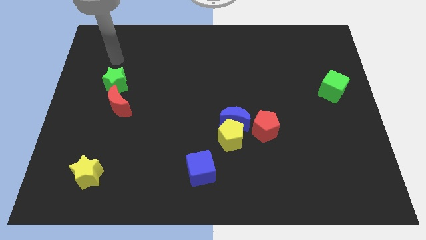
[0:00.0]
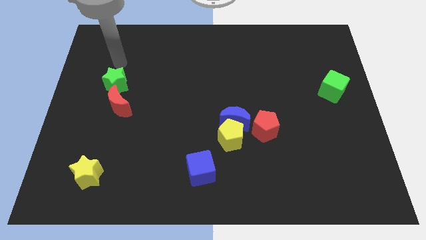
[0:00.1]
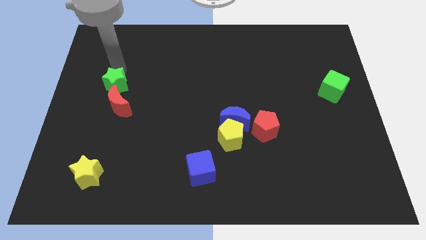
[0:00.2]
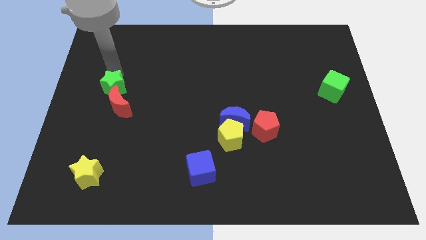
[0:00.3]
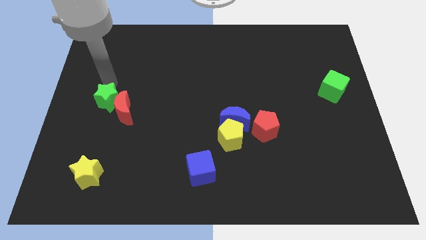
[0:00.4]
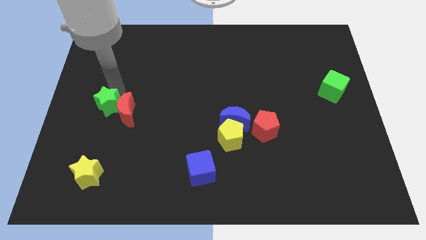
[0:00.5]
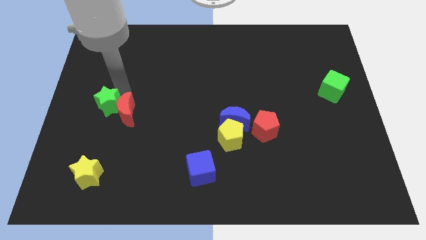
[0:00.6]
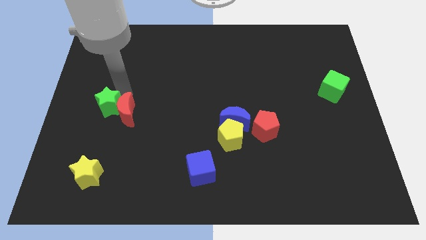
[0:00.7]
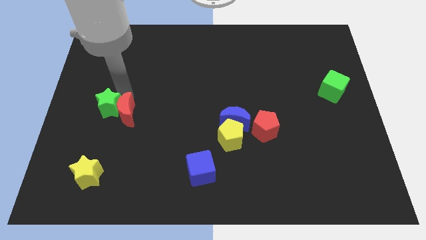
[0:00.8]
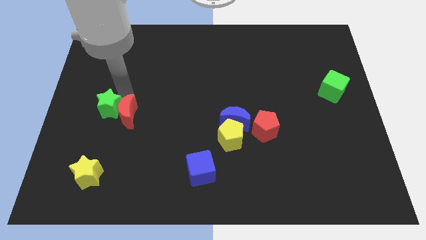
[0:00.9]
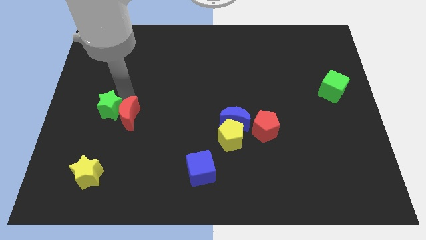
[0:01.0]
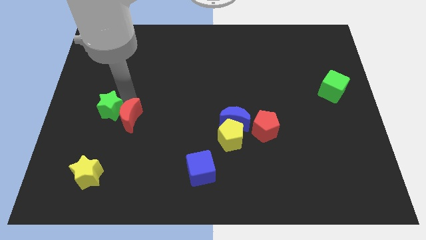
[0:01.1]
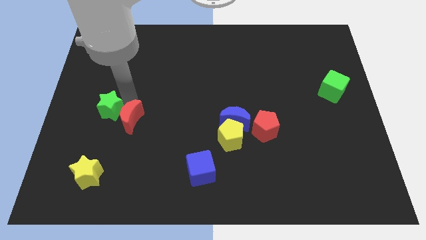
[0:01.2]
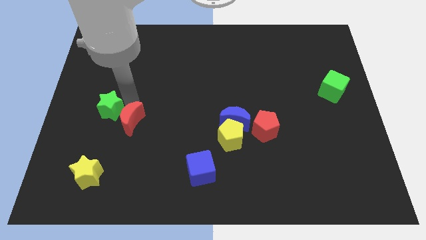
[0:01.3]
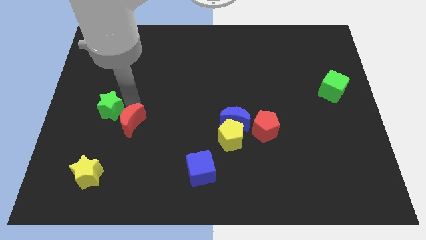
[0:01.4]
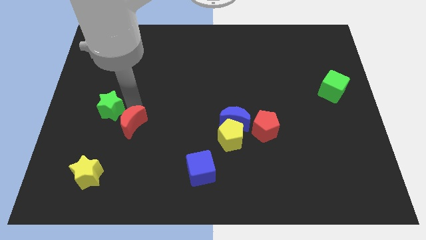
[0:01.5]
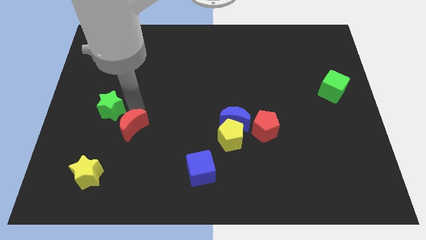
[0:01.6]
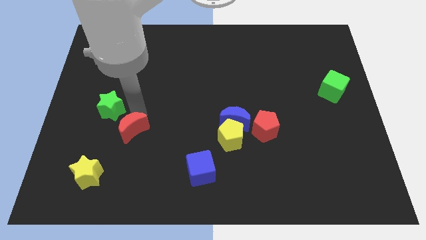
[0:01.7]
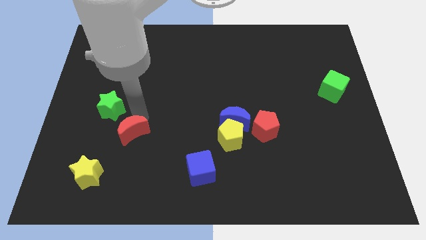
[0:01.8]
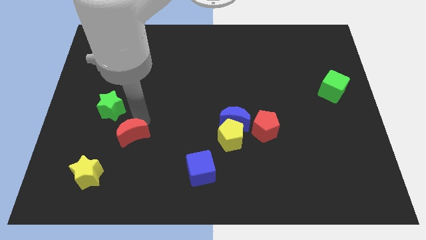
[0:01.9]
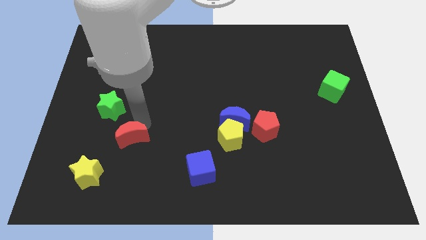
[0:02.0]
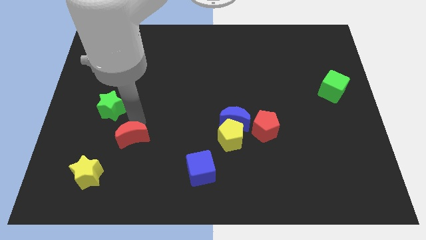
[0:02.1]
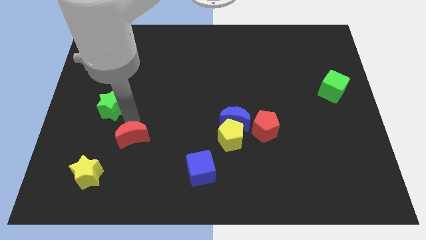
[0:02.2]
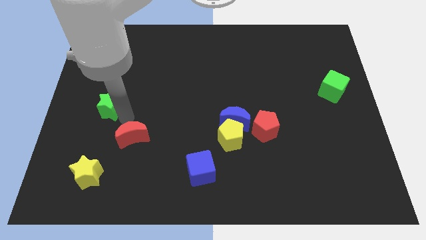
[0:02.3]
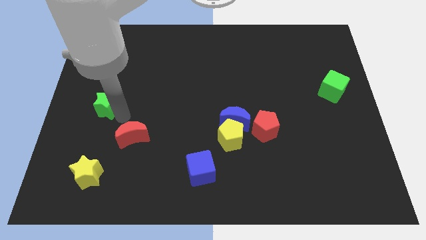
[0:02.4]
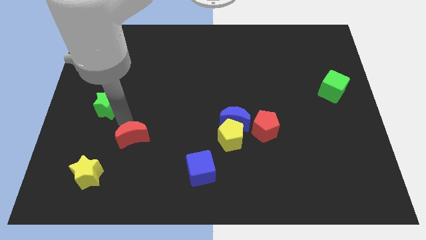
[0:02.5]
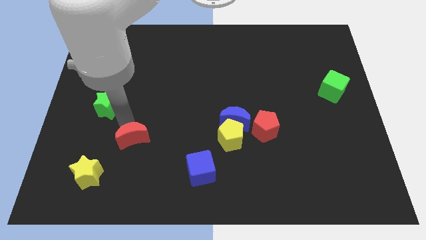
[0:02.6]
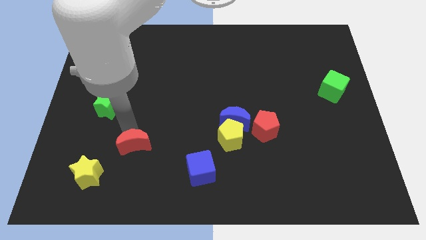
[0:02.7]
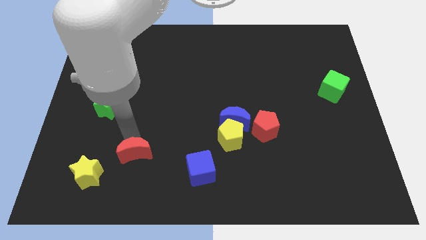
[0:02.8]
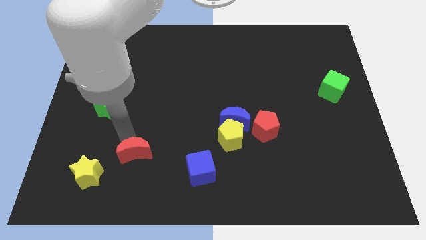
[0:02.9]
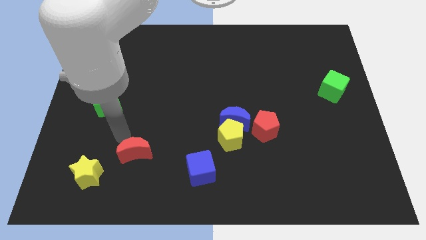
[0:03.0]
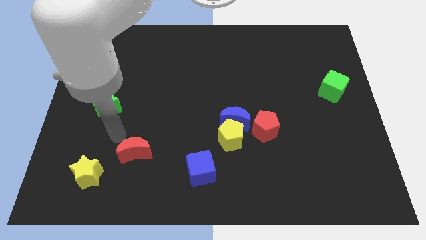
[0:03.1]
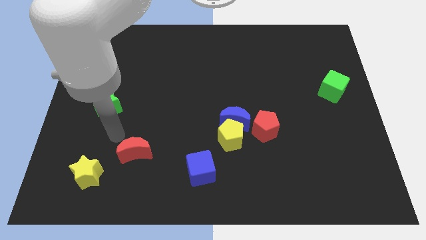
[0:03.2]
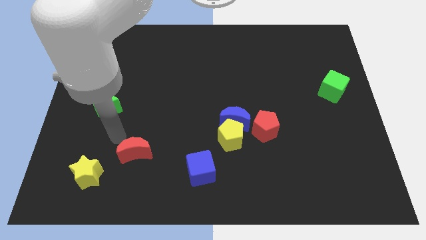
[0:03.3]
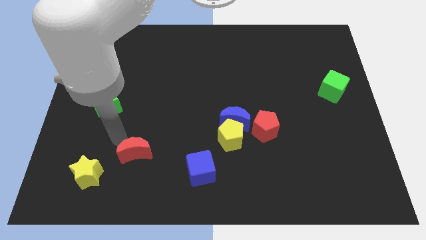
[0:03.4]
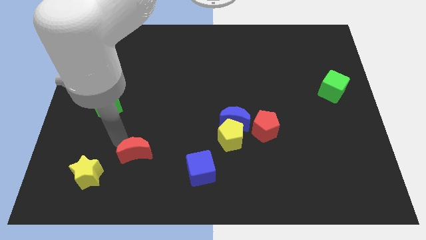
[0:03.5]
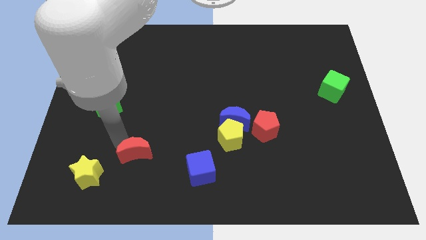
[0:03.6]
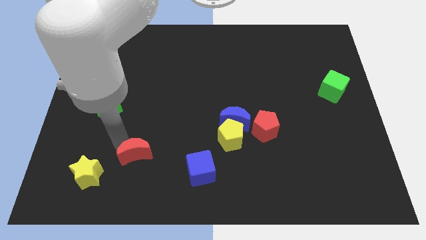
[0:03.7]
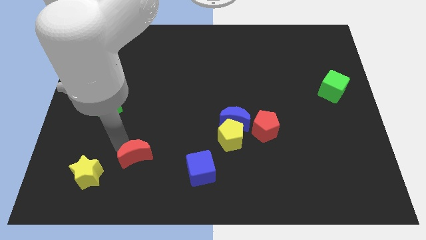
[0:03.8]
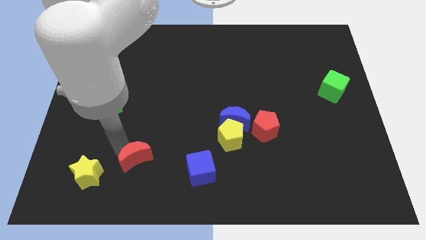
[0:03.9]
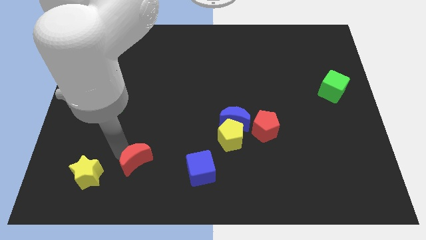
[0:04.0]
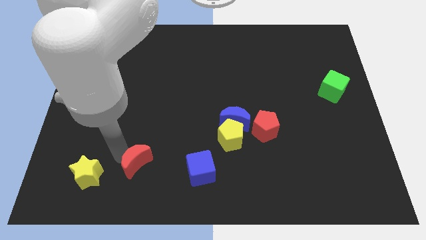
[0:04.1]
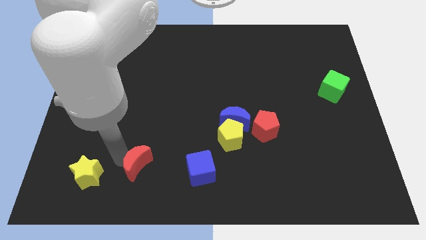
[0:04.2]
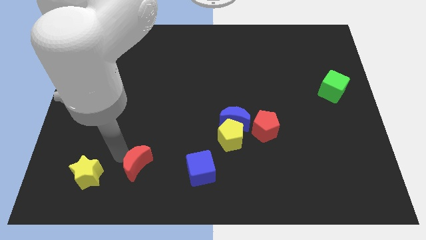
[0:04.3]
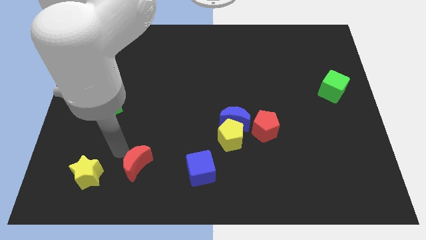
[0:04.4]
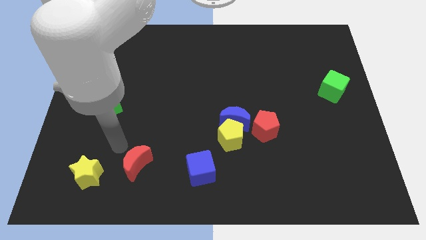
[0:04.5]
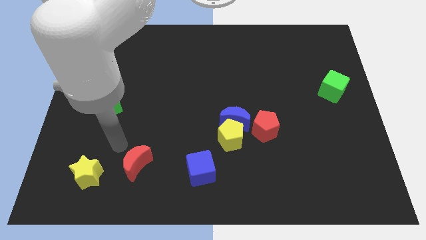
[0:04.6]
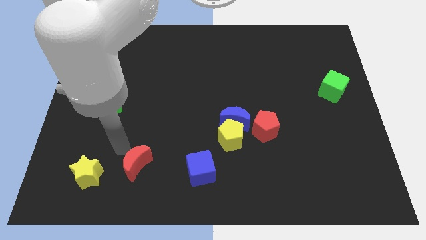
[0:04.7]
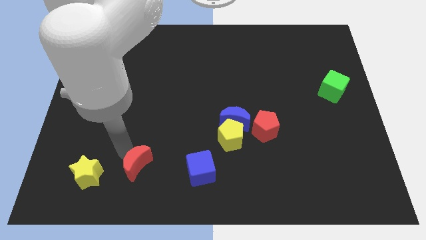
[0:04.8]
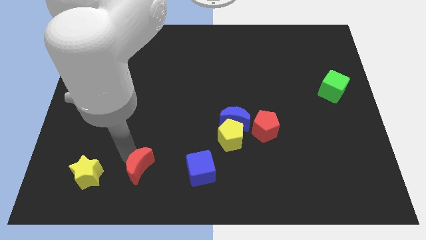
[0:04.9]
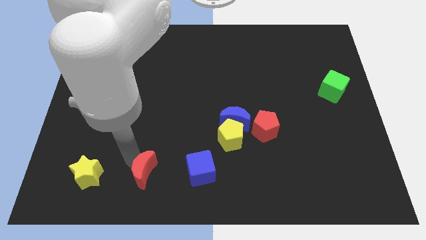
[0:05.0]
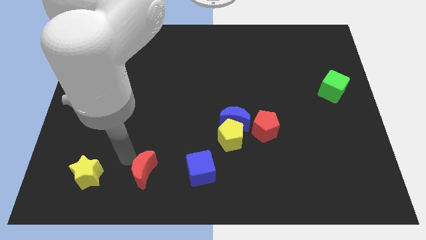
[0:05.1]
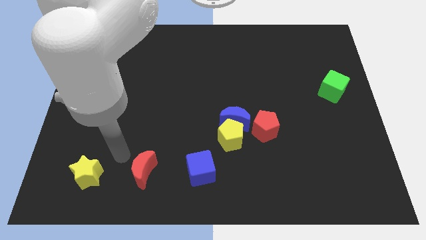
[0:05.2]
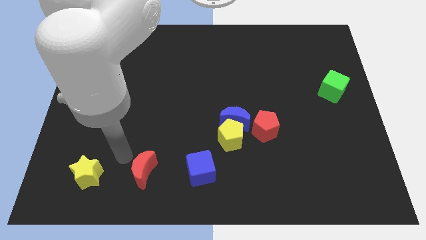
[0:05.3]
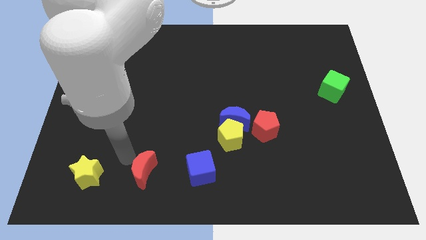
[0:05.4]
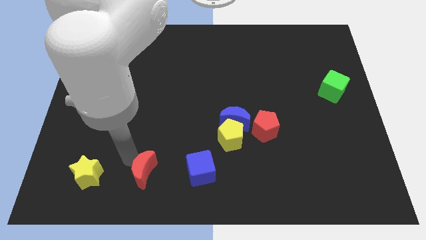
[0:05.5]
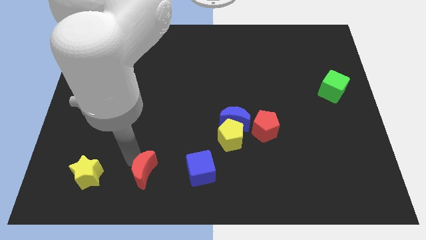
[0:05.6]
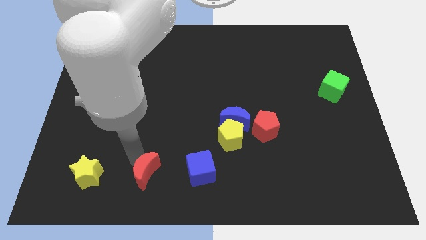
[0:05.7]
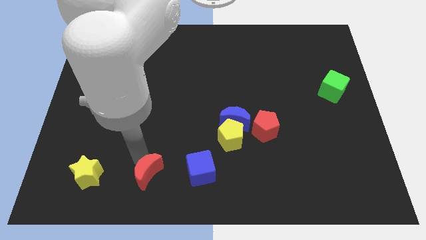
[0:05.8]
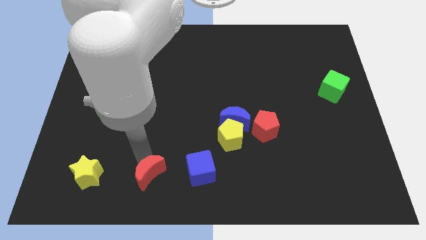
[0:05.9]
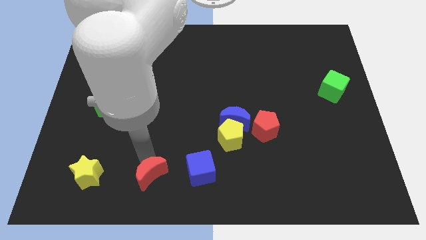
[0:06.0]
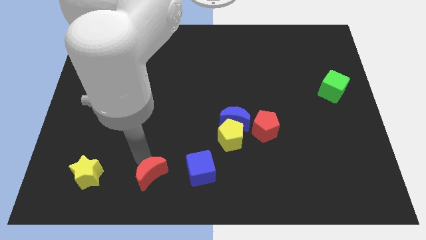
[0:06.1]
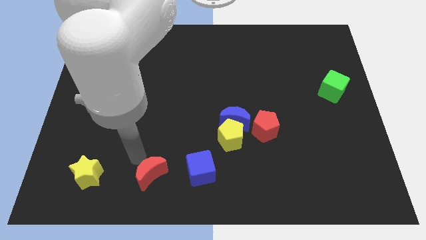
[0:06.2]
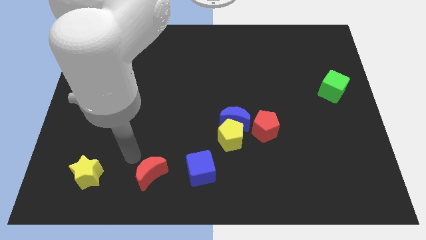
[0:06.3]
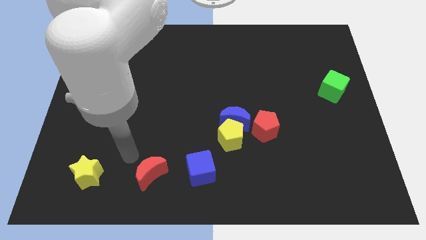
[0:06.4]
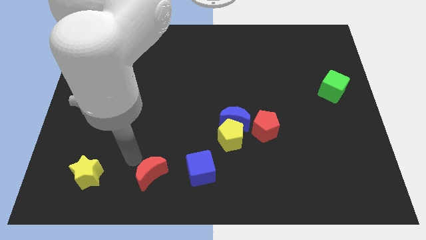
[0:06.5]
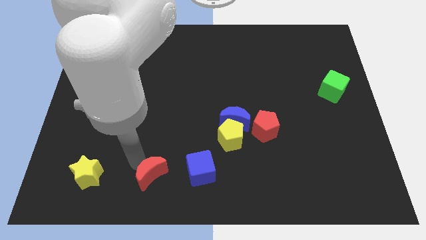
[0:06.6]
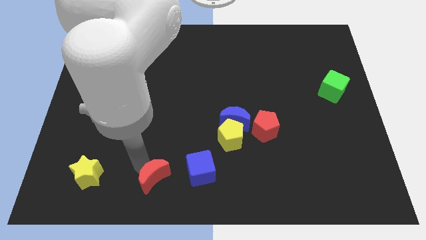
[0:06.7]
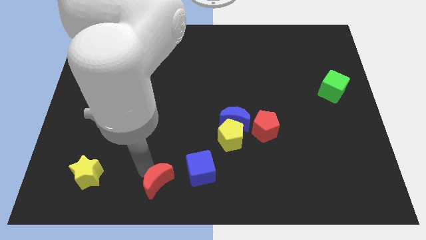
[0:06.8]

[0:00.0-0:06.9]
put the red moon to the bottom side

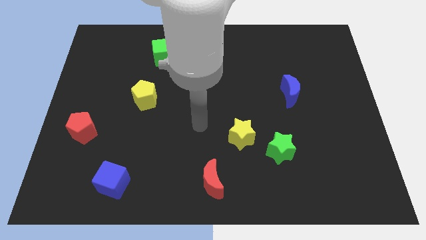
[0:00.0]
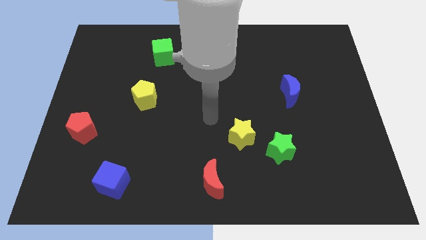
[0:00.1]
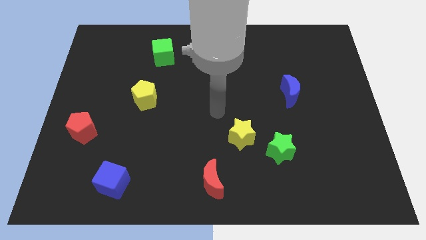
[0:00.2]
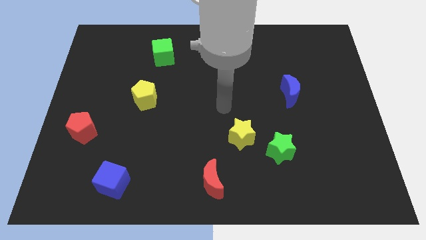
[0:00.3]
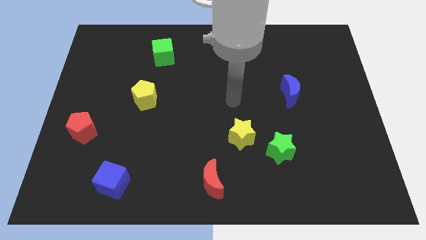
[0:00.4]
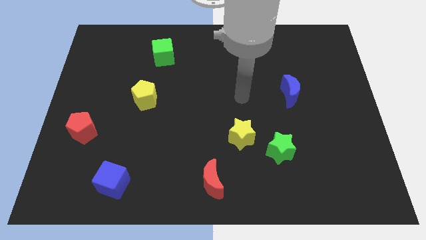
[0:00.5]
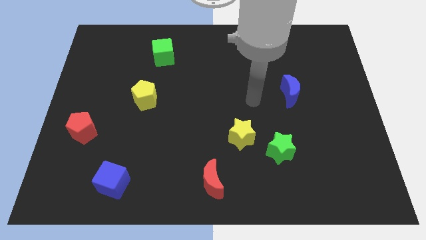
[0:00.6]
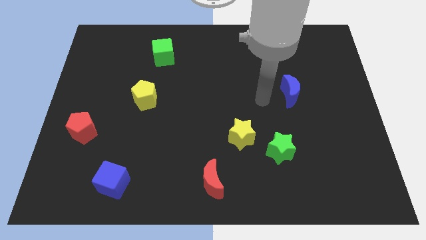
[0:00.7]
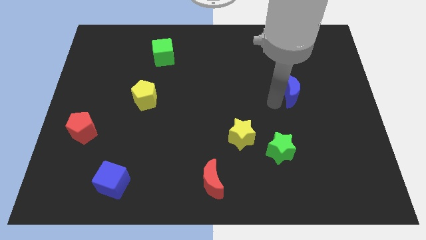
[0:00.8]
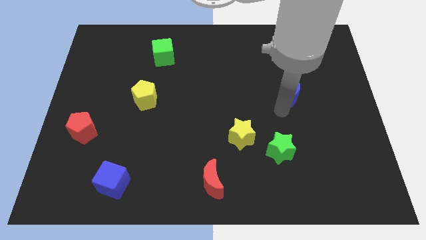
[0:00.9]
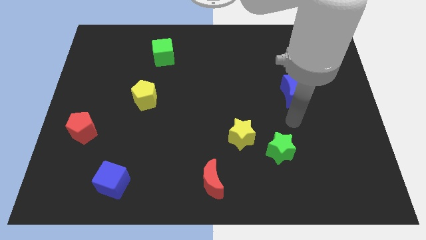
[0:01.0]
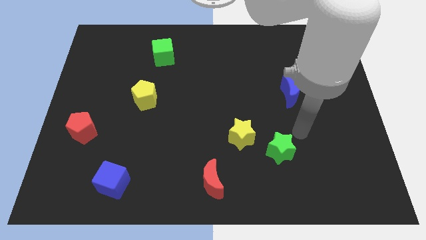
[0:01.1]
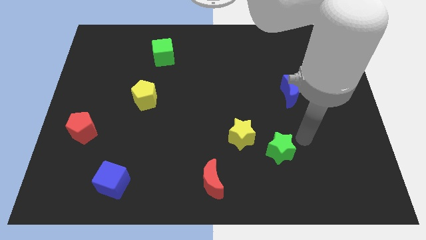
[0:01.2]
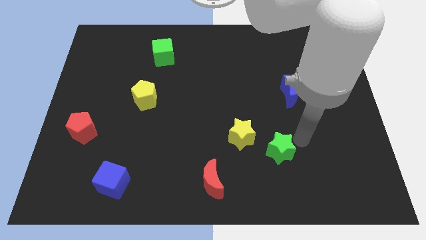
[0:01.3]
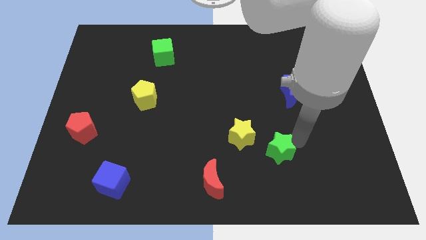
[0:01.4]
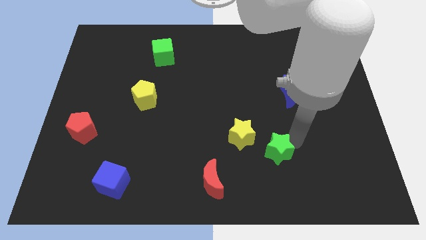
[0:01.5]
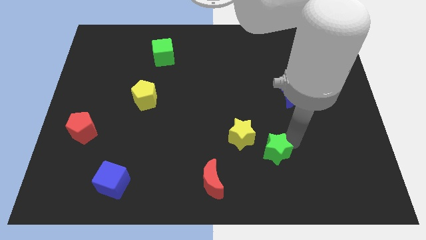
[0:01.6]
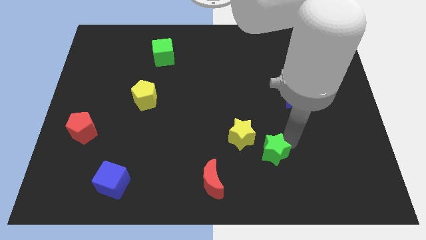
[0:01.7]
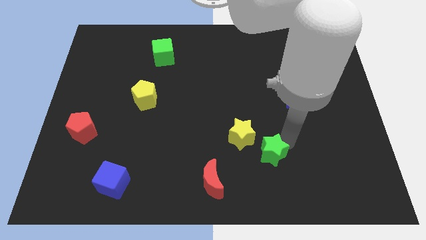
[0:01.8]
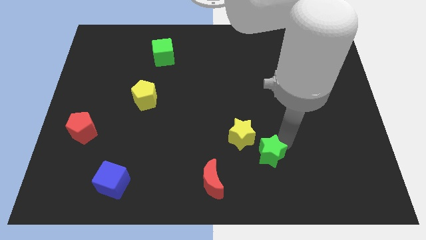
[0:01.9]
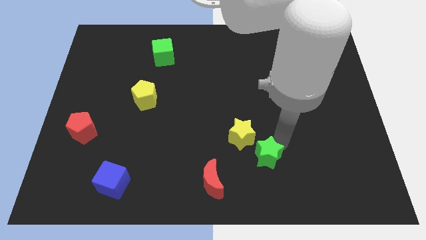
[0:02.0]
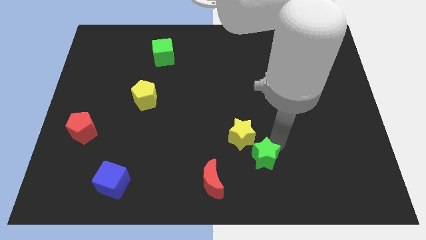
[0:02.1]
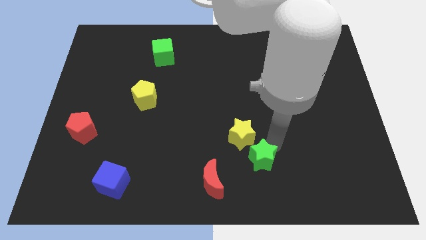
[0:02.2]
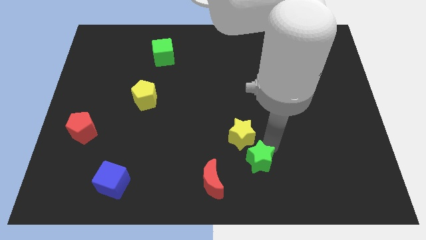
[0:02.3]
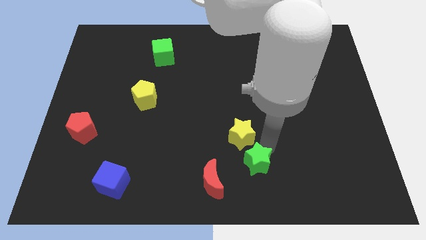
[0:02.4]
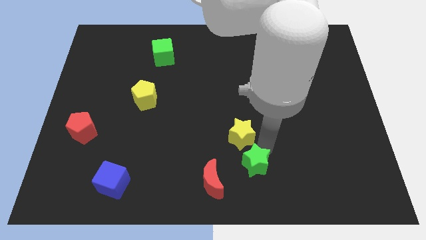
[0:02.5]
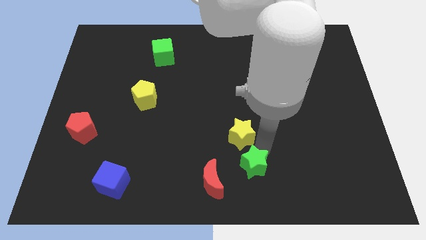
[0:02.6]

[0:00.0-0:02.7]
put the green star to the bottom side
